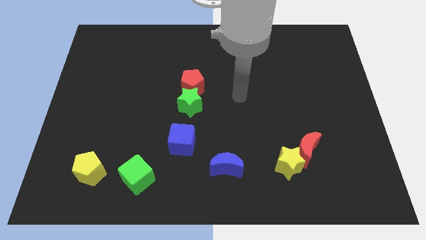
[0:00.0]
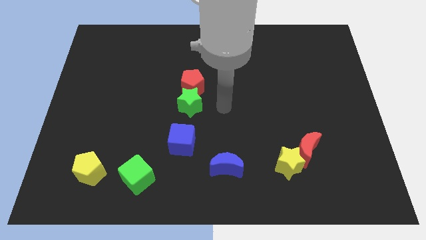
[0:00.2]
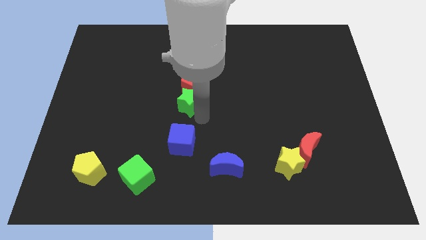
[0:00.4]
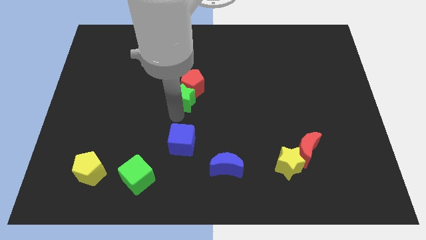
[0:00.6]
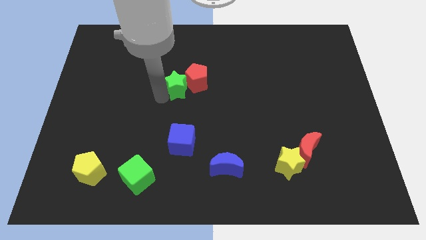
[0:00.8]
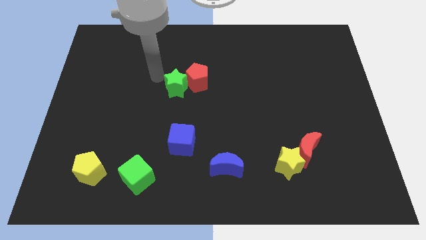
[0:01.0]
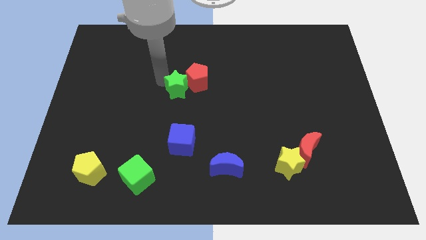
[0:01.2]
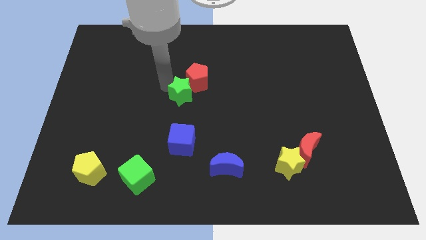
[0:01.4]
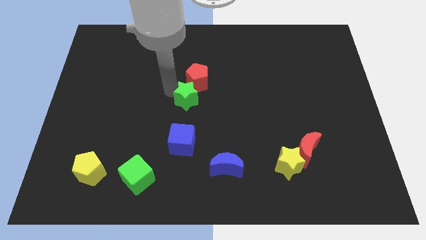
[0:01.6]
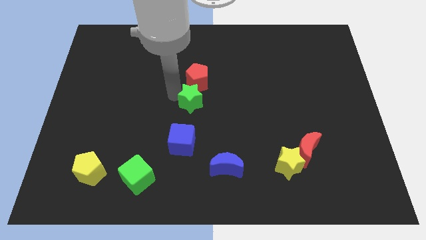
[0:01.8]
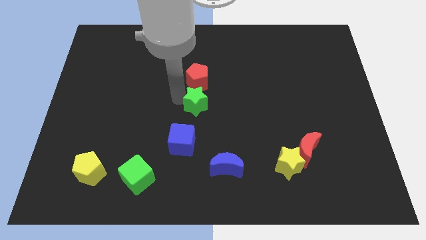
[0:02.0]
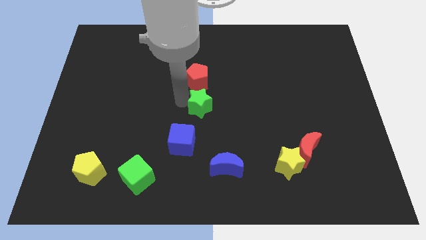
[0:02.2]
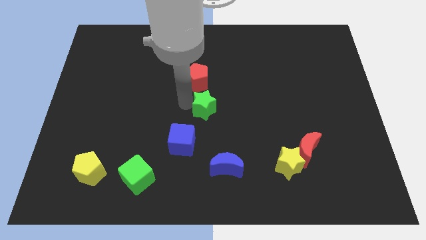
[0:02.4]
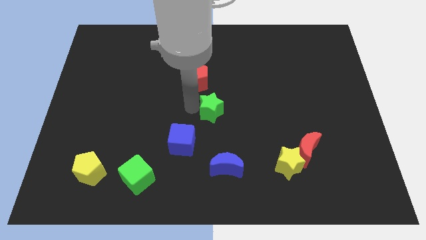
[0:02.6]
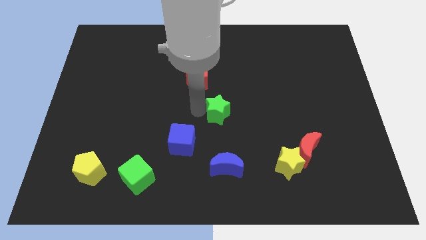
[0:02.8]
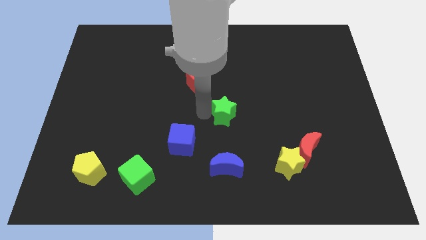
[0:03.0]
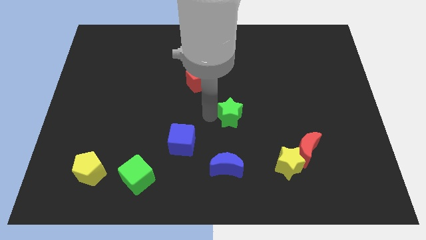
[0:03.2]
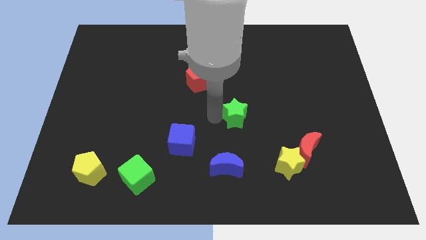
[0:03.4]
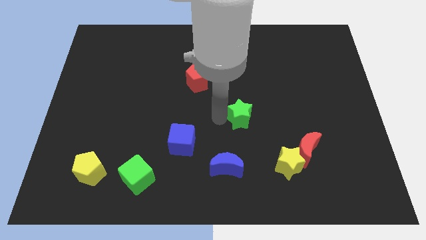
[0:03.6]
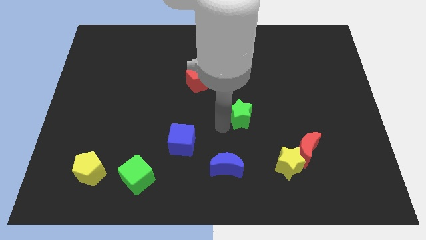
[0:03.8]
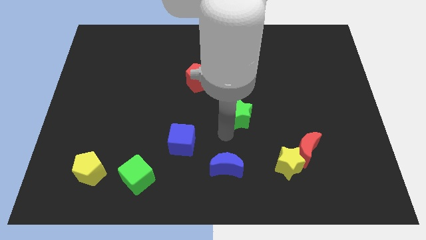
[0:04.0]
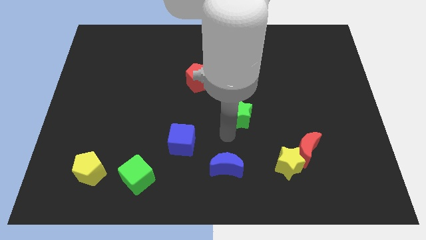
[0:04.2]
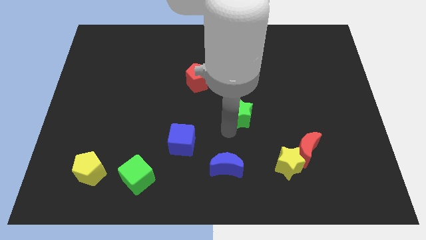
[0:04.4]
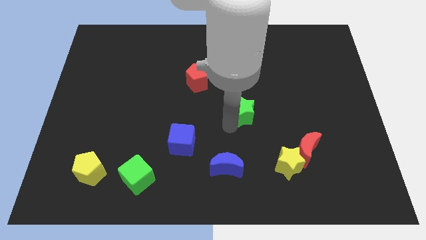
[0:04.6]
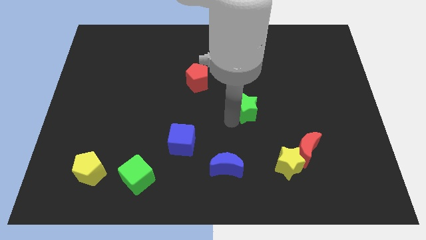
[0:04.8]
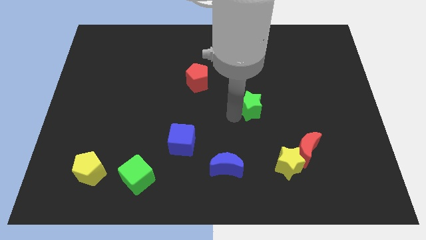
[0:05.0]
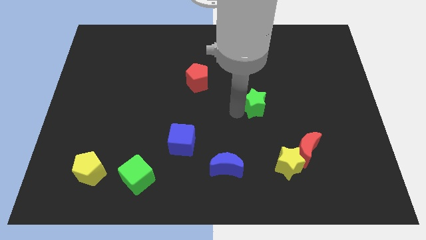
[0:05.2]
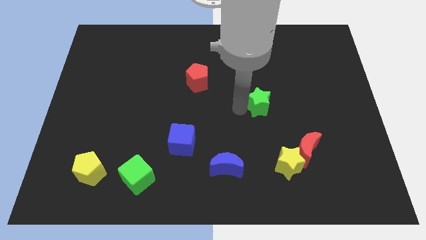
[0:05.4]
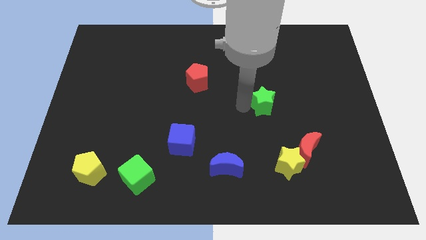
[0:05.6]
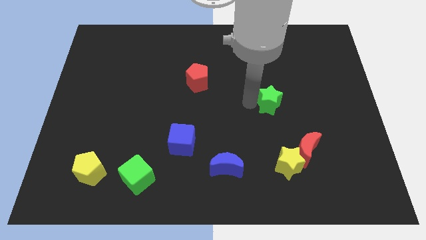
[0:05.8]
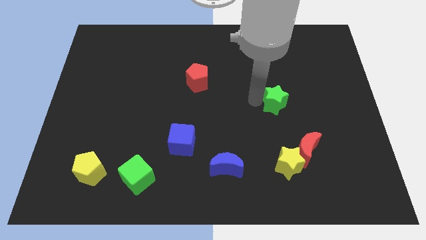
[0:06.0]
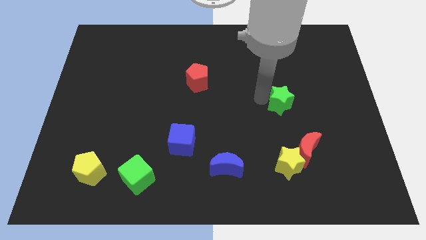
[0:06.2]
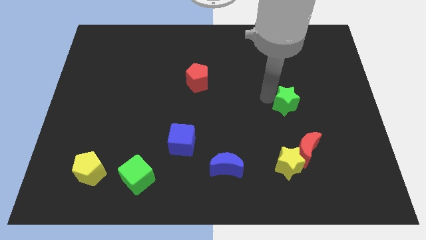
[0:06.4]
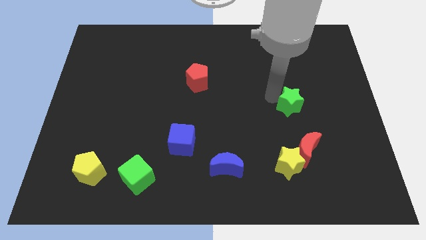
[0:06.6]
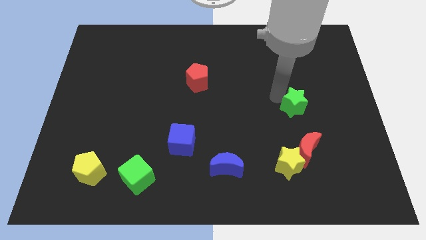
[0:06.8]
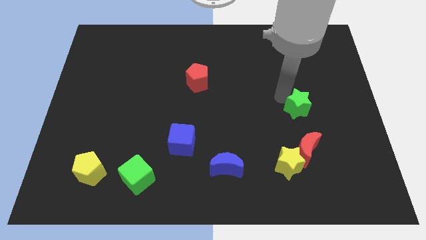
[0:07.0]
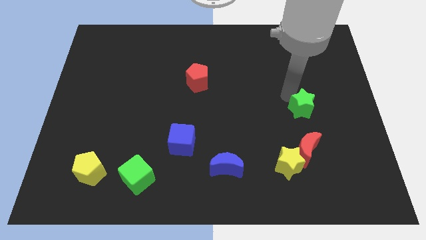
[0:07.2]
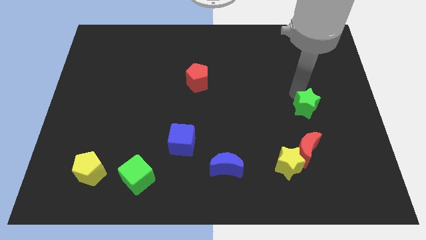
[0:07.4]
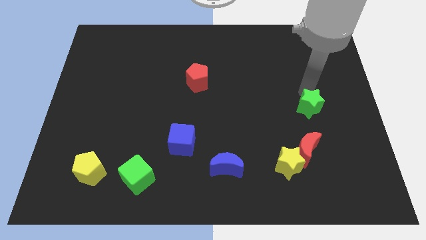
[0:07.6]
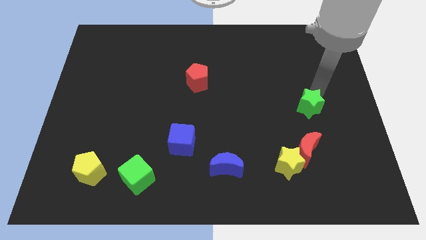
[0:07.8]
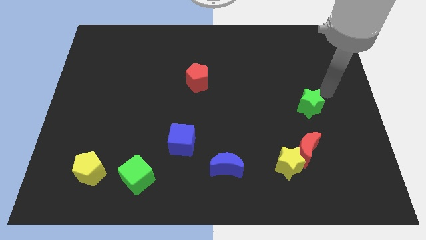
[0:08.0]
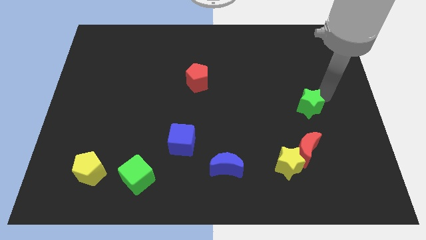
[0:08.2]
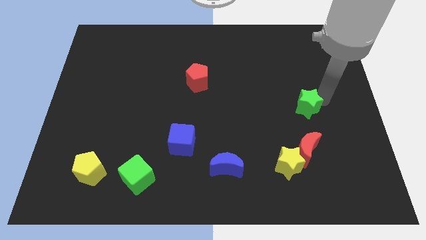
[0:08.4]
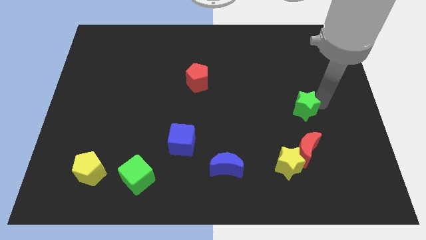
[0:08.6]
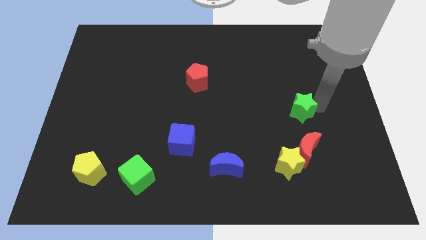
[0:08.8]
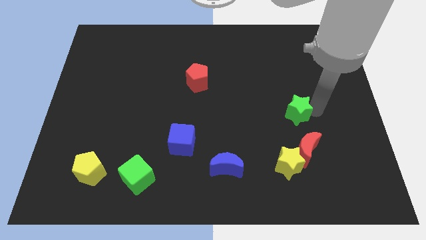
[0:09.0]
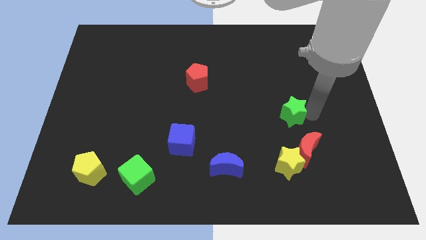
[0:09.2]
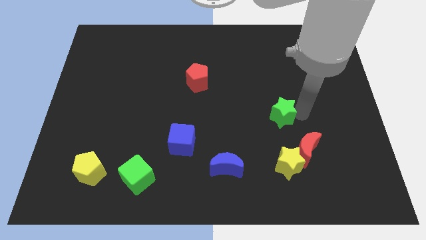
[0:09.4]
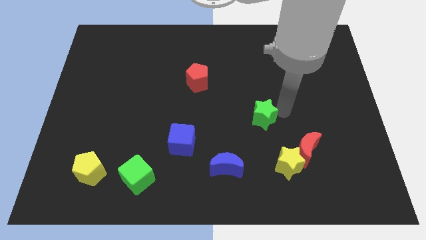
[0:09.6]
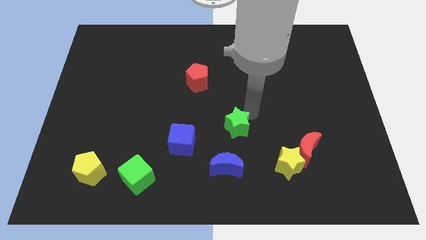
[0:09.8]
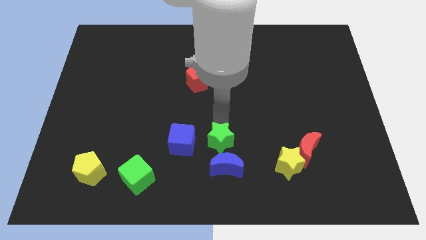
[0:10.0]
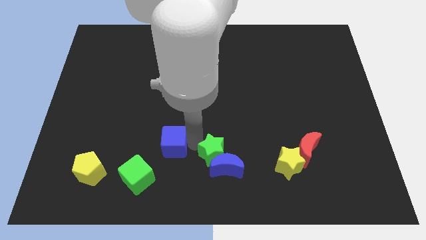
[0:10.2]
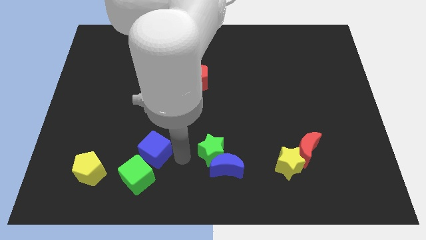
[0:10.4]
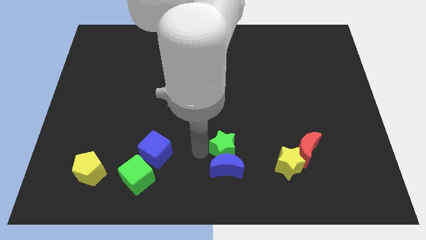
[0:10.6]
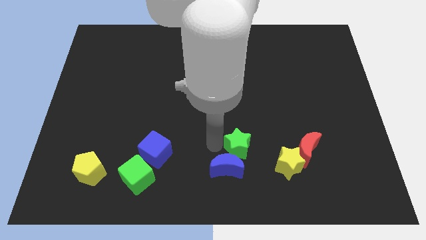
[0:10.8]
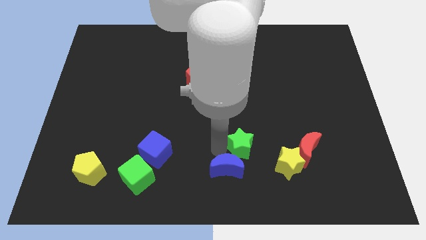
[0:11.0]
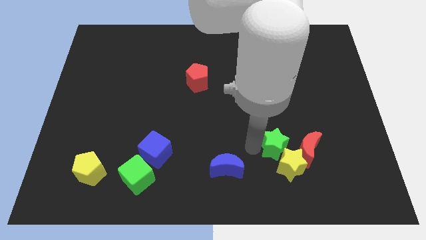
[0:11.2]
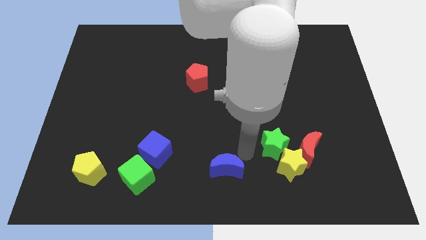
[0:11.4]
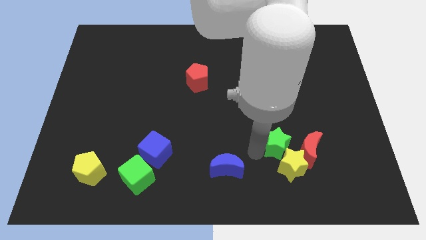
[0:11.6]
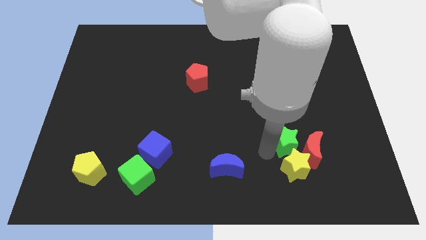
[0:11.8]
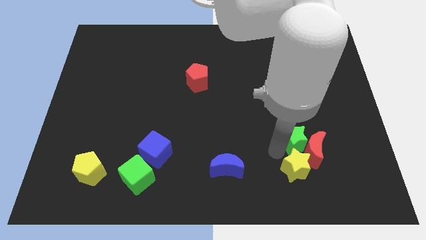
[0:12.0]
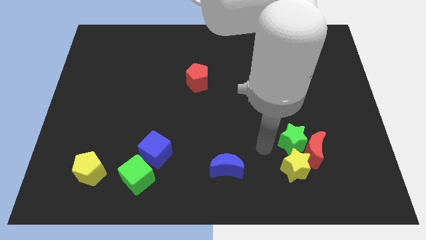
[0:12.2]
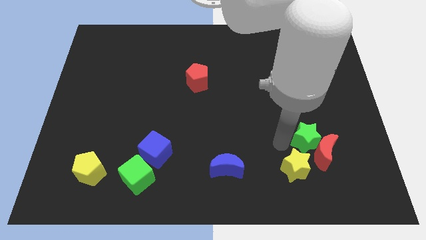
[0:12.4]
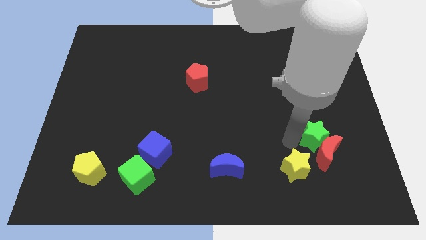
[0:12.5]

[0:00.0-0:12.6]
slide the green star to the top right of the red moon

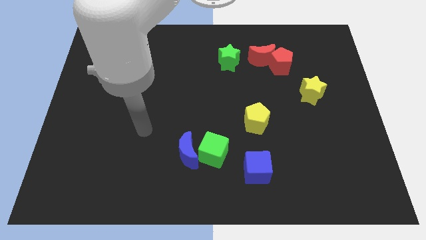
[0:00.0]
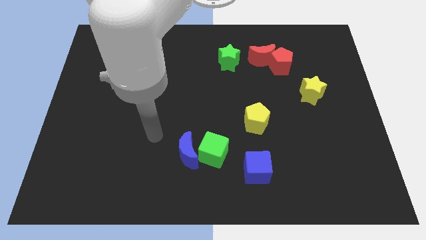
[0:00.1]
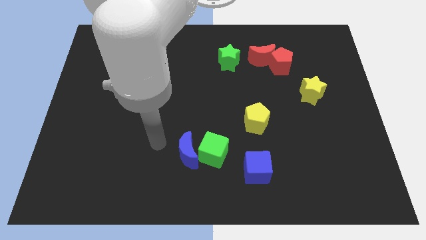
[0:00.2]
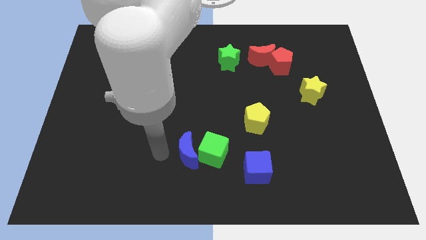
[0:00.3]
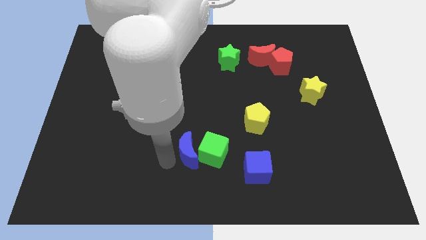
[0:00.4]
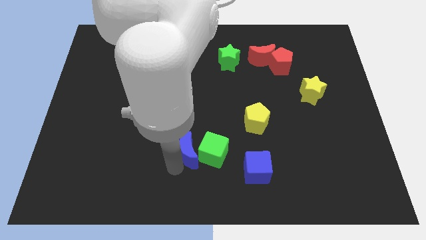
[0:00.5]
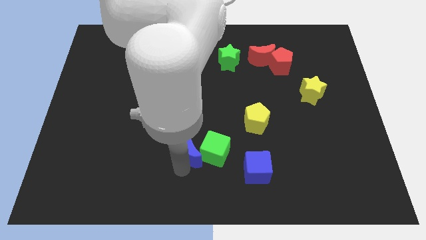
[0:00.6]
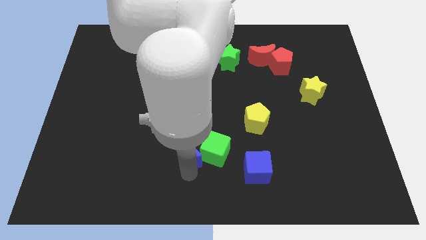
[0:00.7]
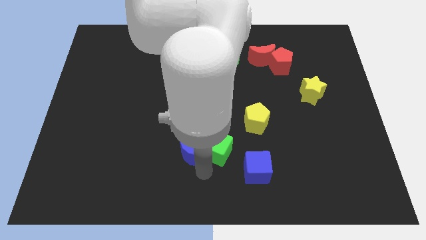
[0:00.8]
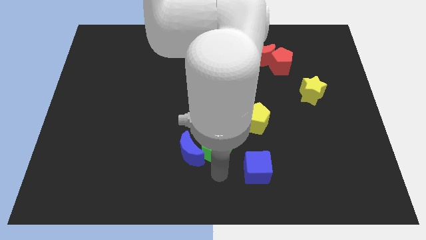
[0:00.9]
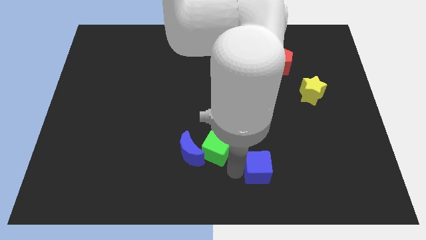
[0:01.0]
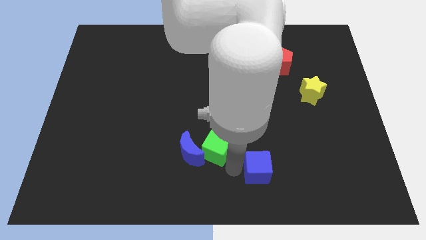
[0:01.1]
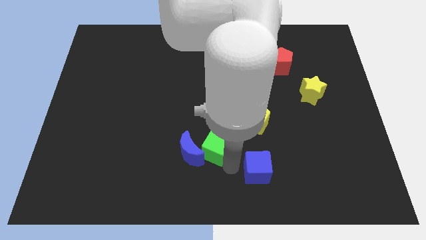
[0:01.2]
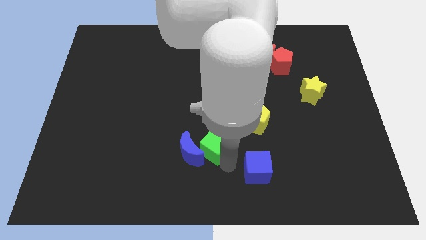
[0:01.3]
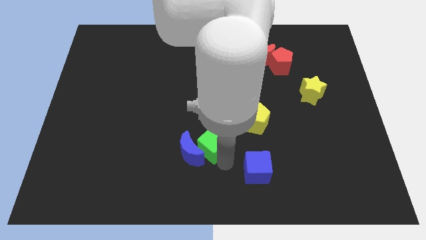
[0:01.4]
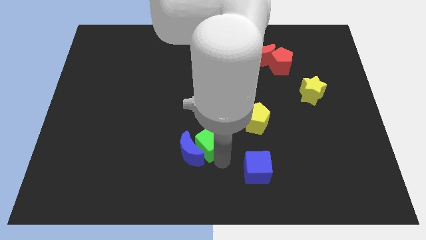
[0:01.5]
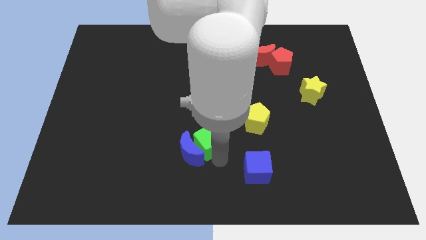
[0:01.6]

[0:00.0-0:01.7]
move the green cube to the top of the blue moon
